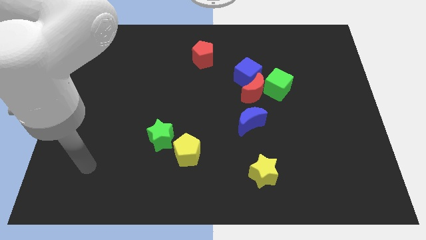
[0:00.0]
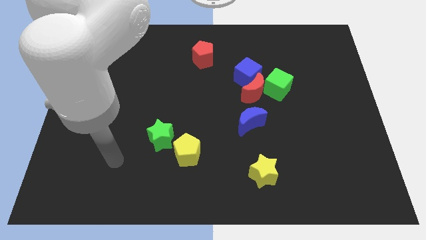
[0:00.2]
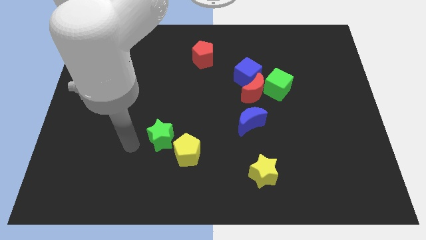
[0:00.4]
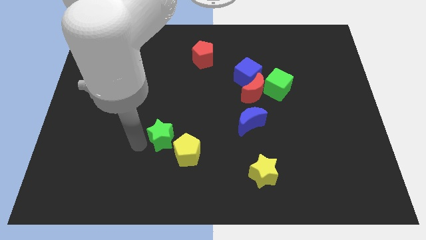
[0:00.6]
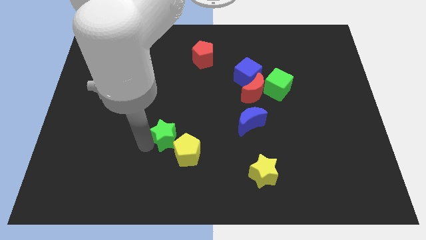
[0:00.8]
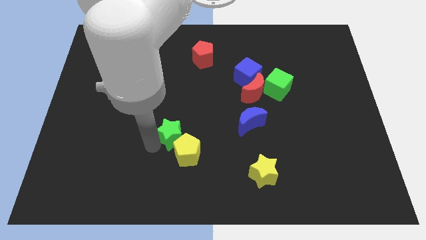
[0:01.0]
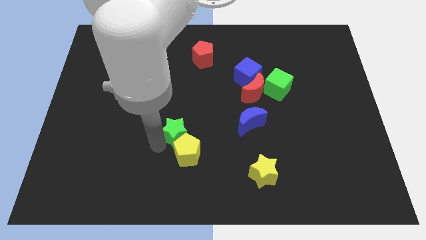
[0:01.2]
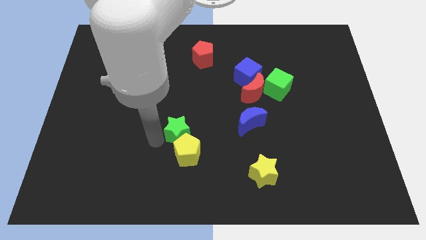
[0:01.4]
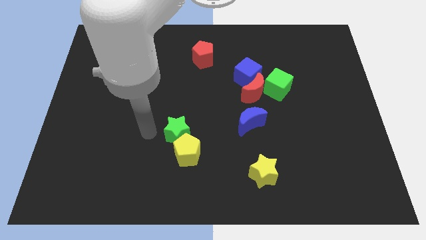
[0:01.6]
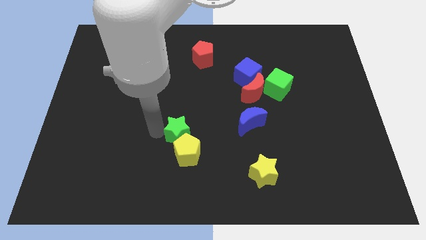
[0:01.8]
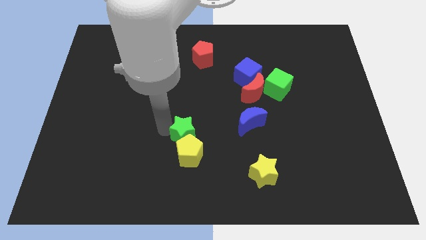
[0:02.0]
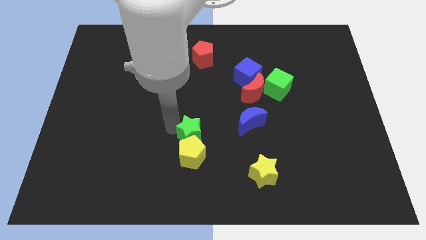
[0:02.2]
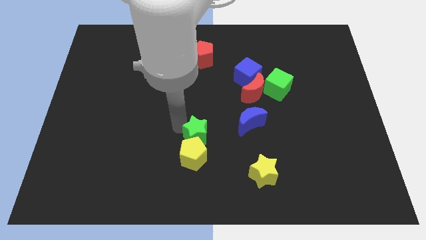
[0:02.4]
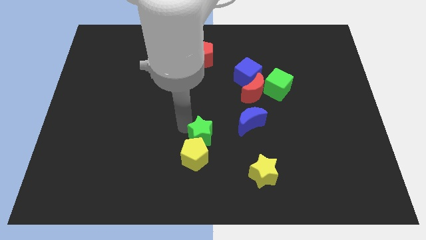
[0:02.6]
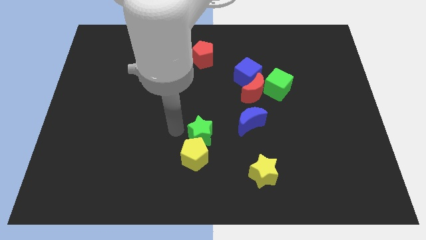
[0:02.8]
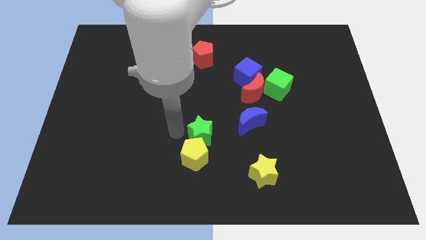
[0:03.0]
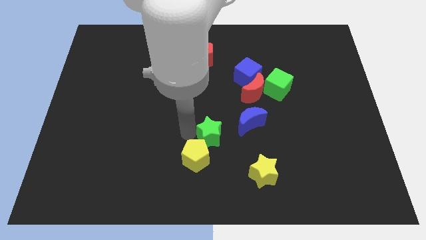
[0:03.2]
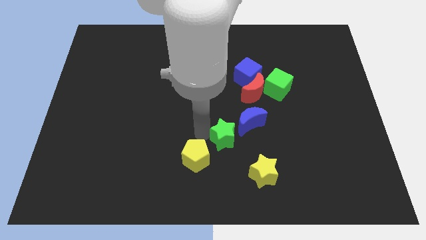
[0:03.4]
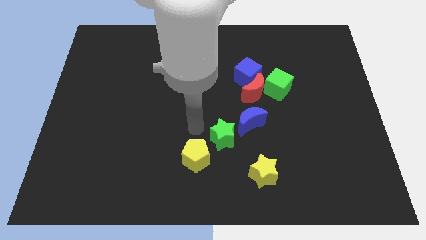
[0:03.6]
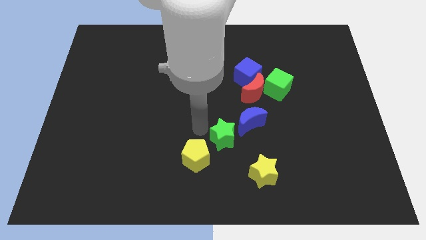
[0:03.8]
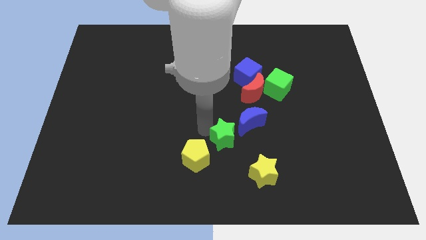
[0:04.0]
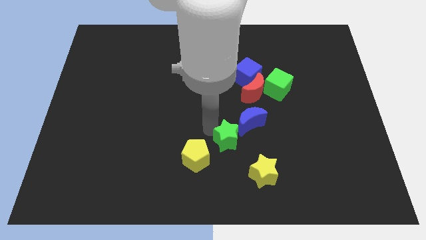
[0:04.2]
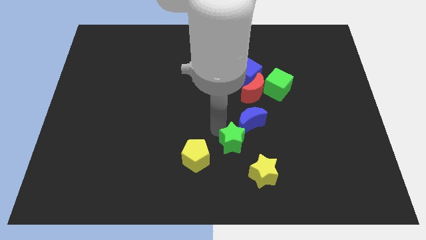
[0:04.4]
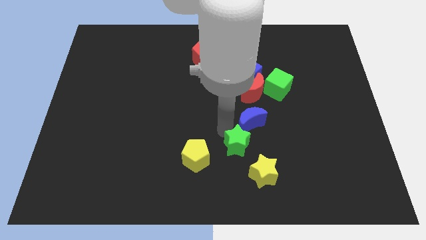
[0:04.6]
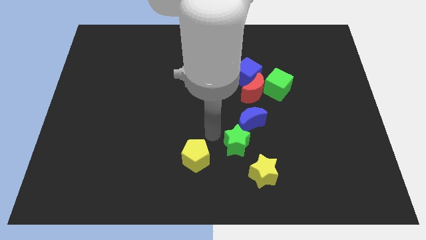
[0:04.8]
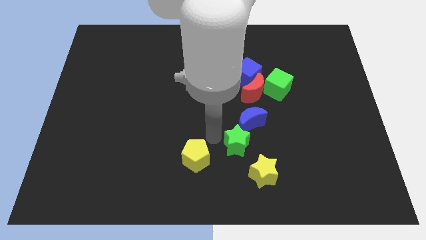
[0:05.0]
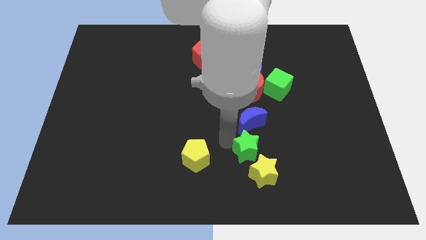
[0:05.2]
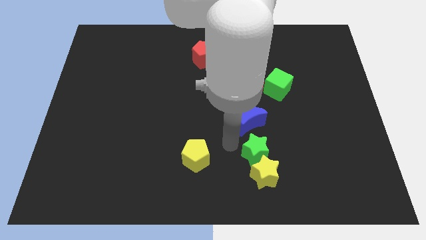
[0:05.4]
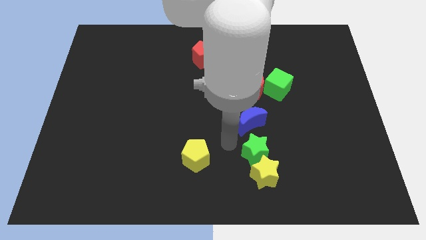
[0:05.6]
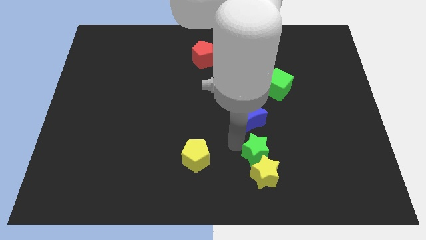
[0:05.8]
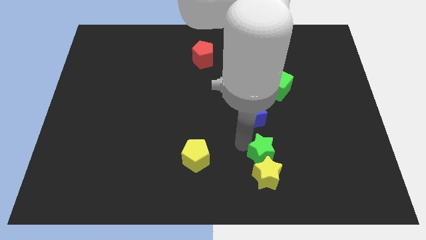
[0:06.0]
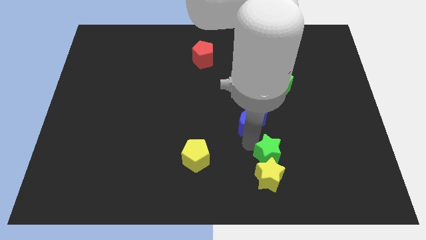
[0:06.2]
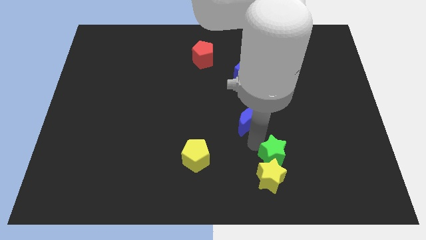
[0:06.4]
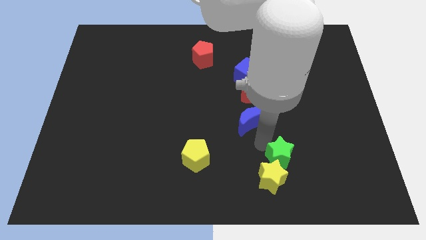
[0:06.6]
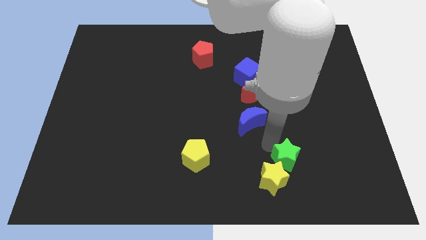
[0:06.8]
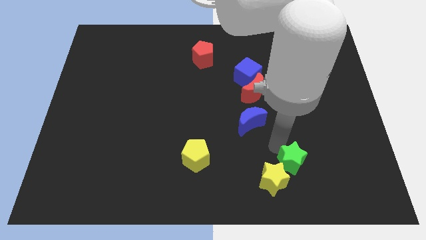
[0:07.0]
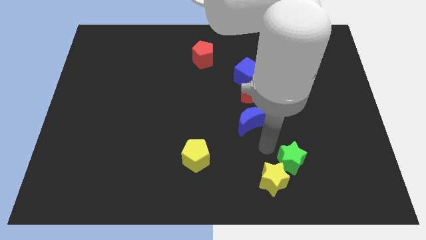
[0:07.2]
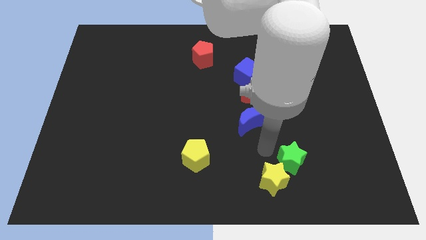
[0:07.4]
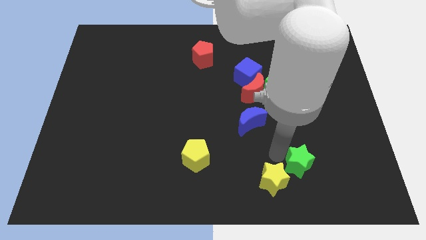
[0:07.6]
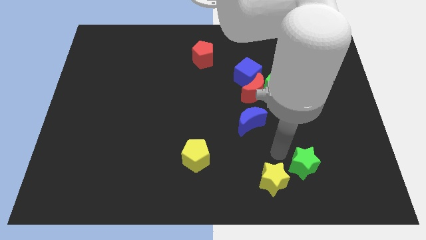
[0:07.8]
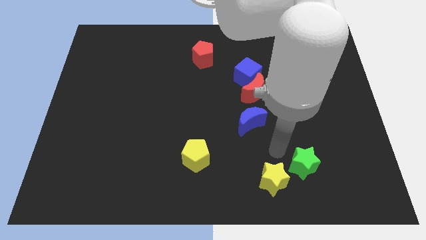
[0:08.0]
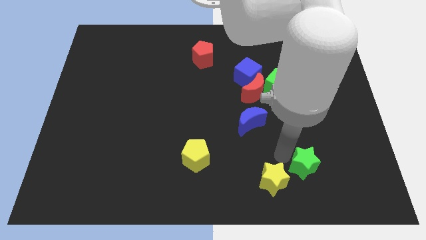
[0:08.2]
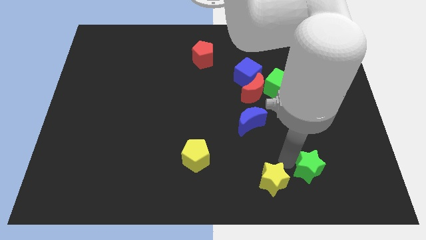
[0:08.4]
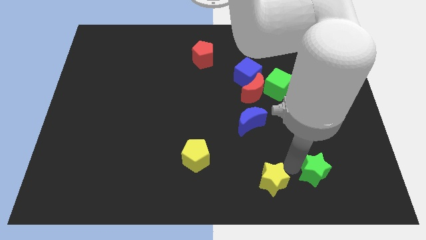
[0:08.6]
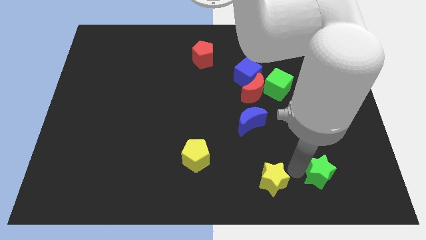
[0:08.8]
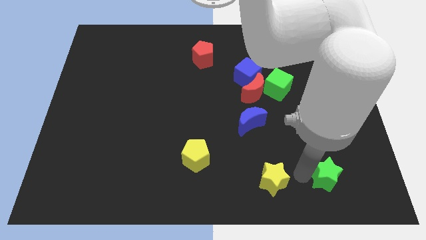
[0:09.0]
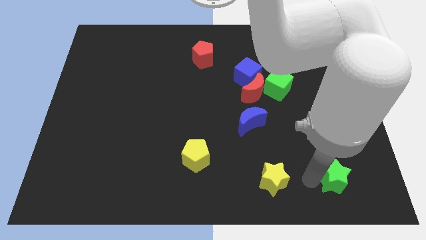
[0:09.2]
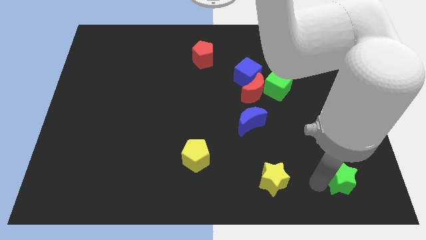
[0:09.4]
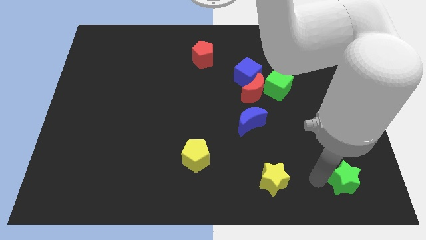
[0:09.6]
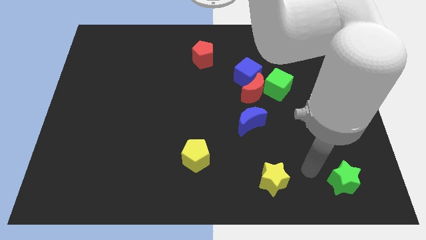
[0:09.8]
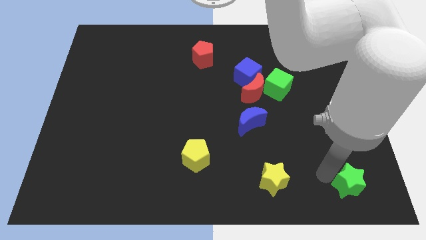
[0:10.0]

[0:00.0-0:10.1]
slide the green star to the lower right corner

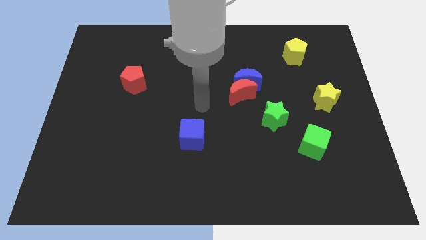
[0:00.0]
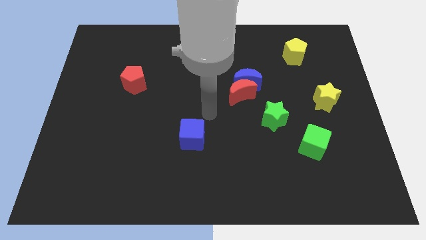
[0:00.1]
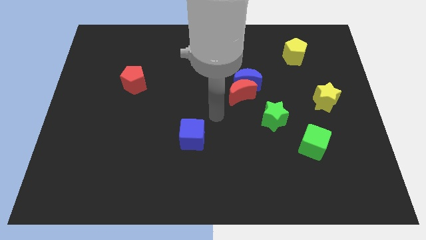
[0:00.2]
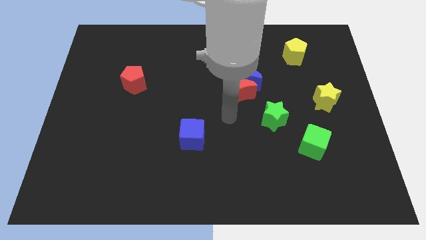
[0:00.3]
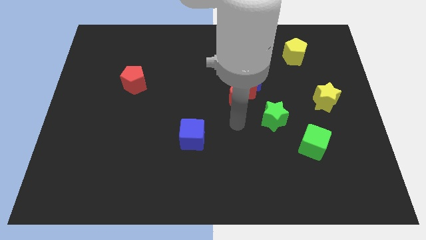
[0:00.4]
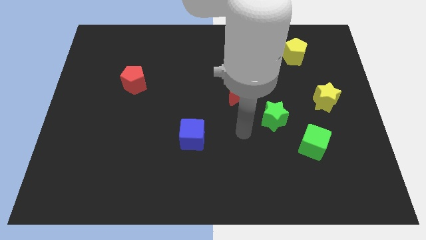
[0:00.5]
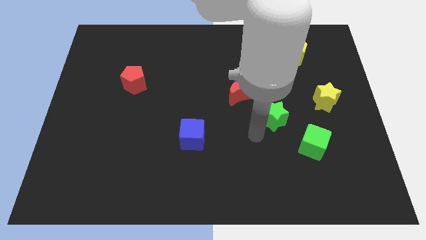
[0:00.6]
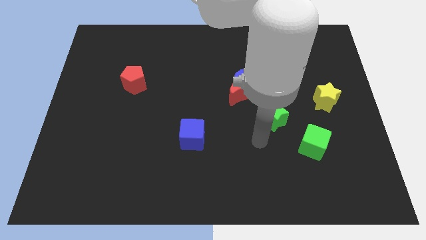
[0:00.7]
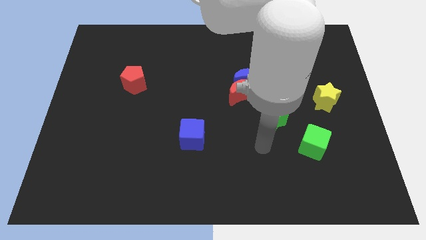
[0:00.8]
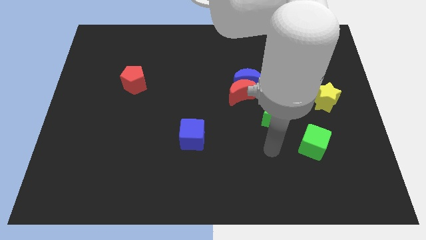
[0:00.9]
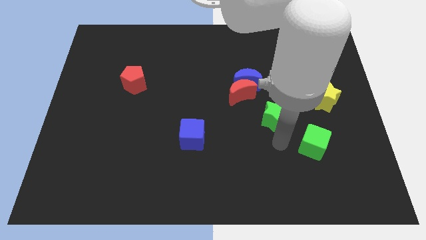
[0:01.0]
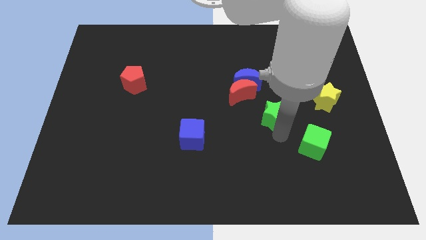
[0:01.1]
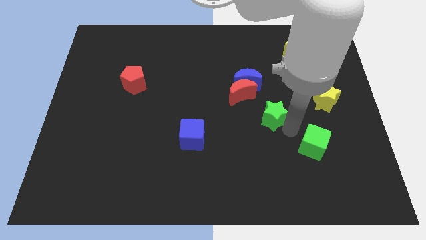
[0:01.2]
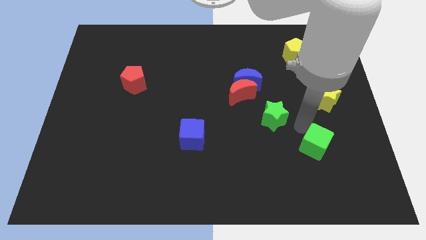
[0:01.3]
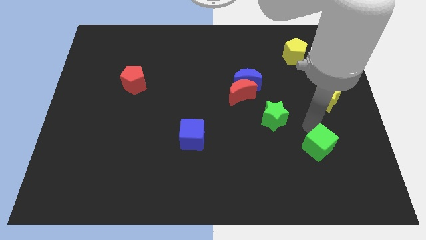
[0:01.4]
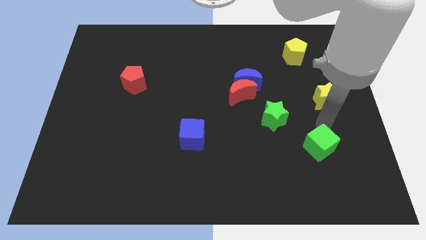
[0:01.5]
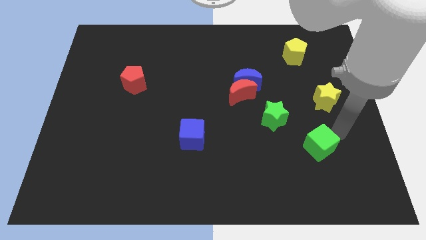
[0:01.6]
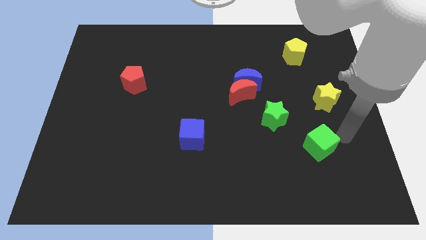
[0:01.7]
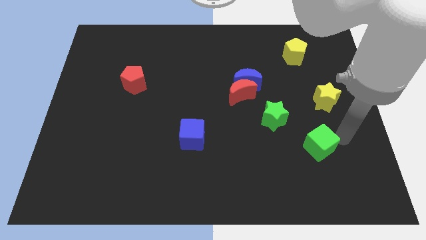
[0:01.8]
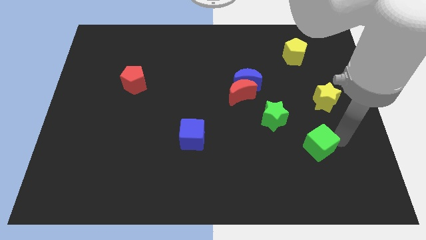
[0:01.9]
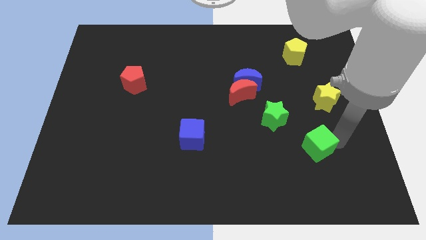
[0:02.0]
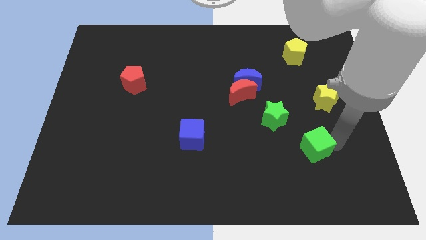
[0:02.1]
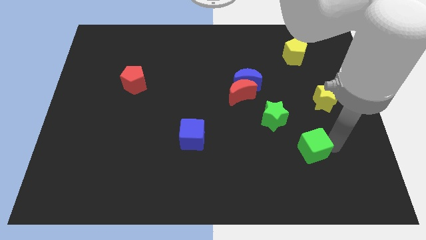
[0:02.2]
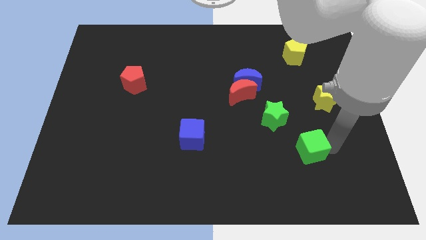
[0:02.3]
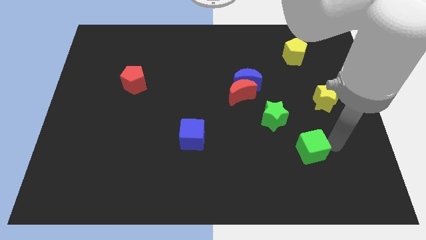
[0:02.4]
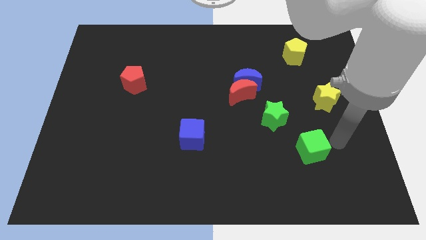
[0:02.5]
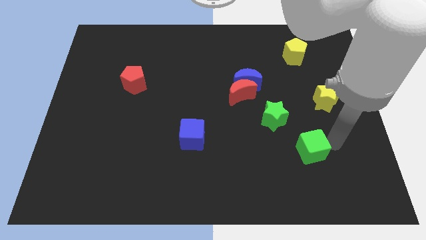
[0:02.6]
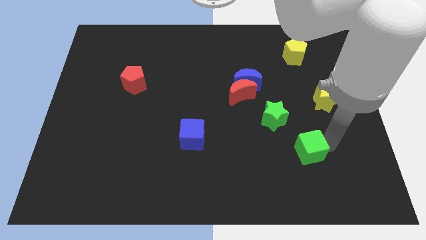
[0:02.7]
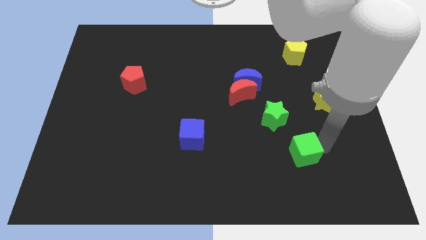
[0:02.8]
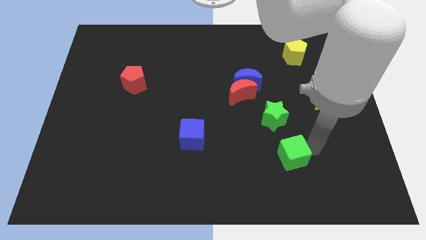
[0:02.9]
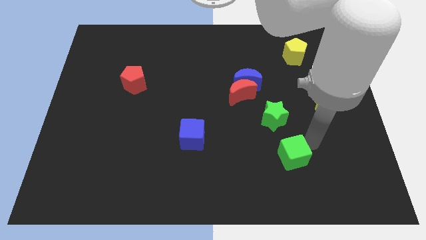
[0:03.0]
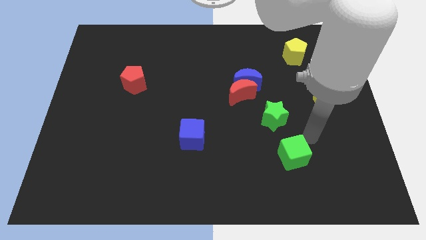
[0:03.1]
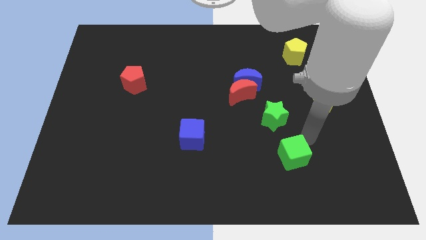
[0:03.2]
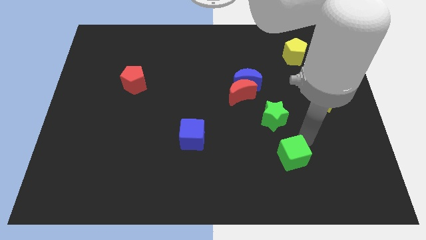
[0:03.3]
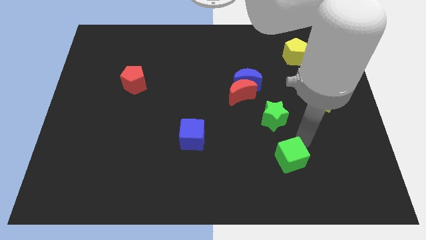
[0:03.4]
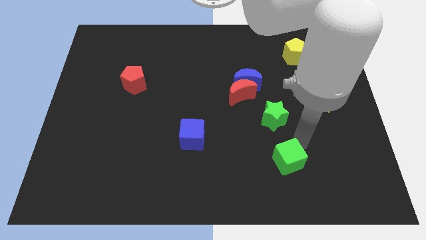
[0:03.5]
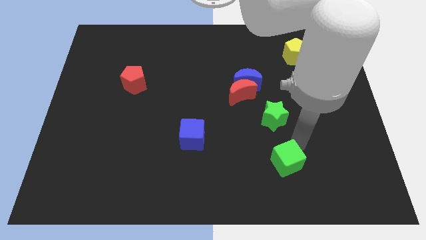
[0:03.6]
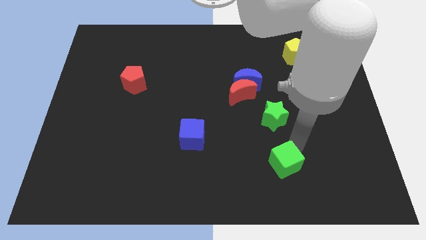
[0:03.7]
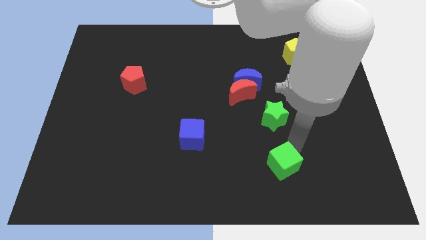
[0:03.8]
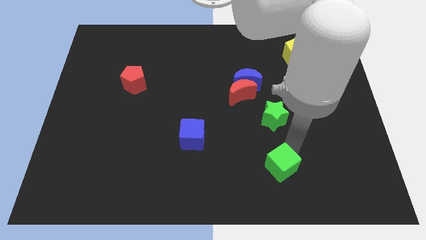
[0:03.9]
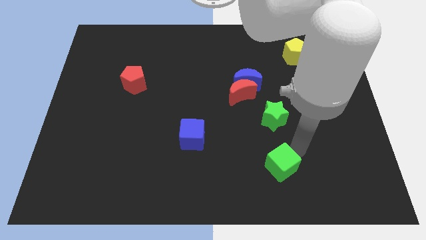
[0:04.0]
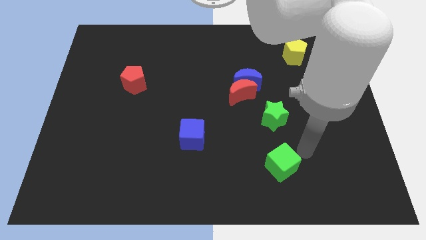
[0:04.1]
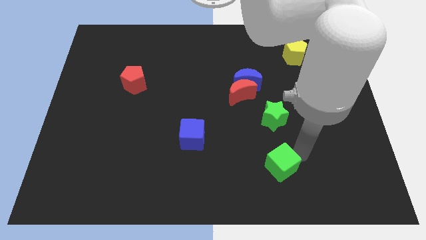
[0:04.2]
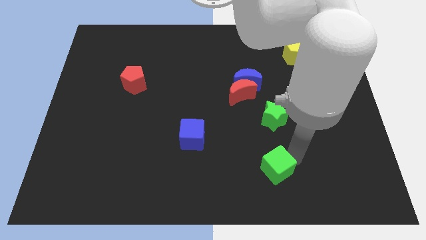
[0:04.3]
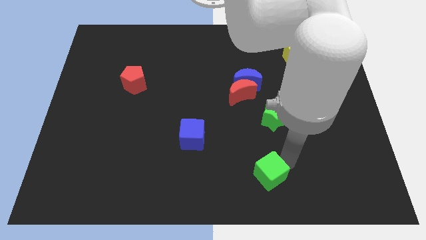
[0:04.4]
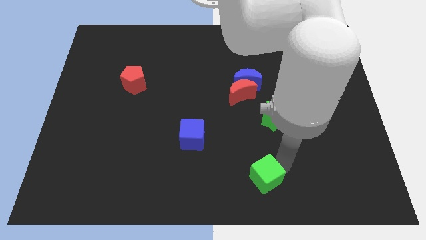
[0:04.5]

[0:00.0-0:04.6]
move the green cube to the bottom
